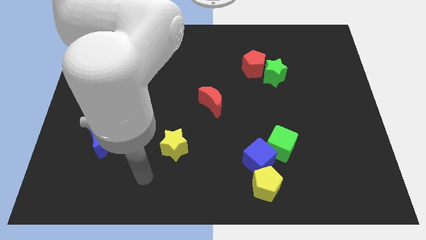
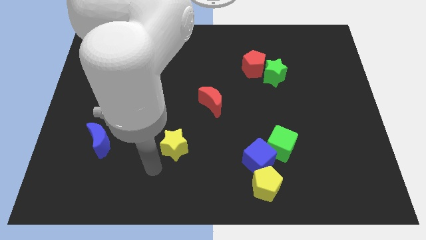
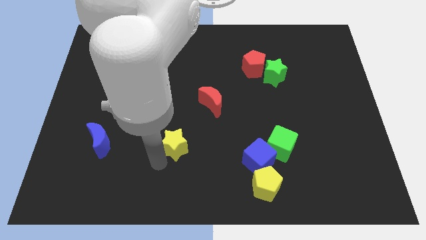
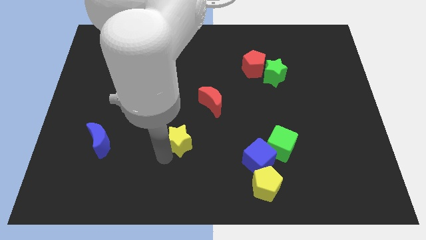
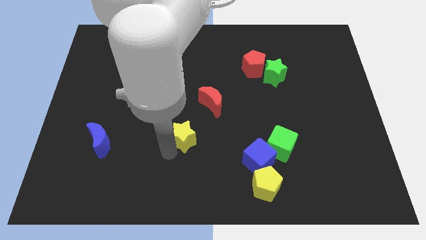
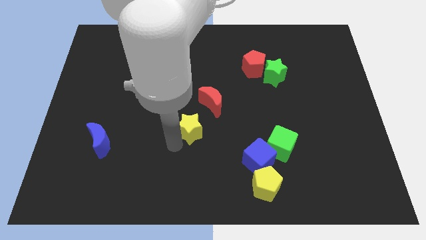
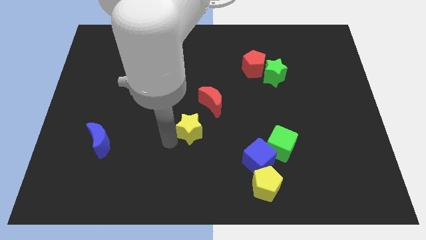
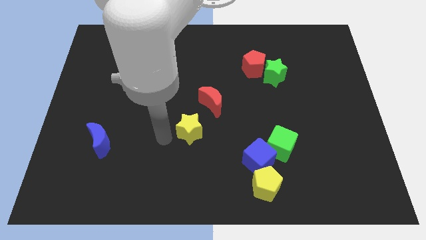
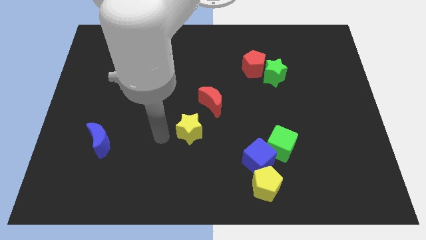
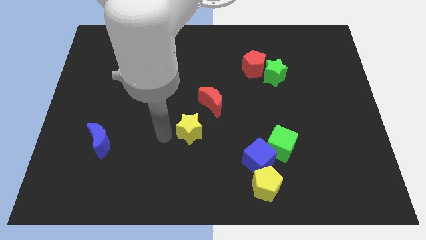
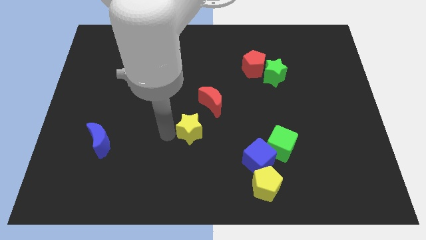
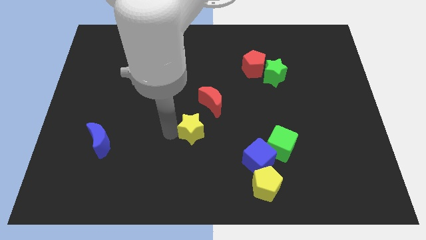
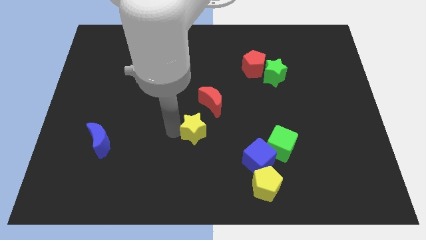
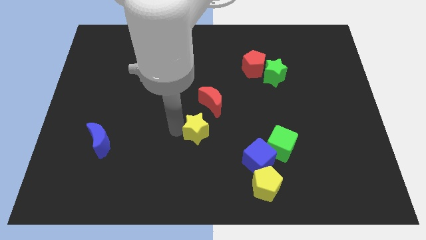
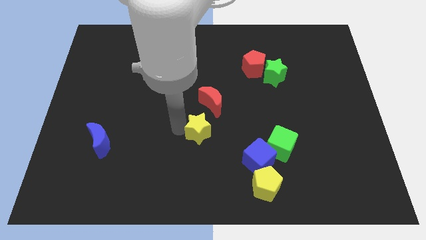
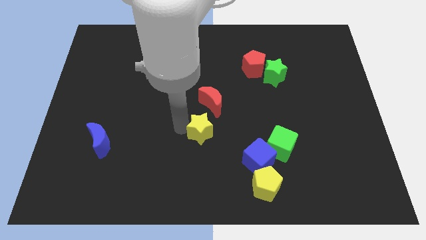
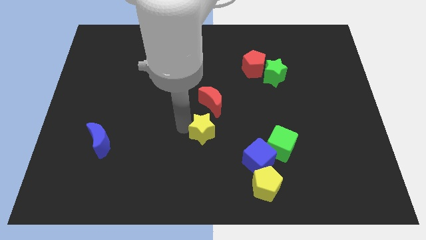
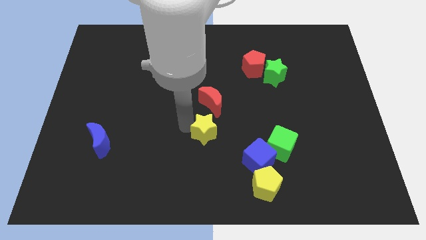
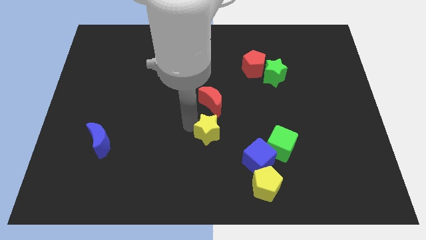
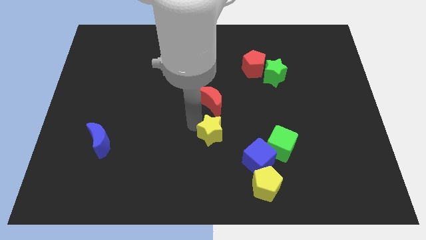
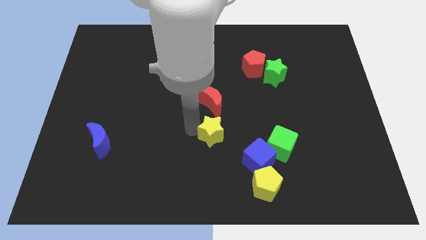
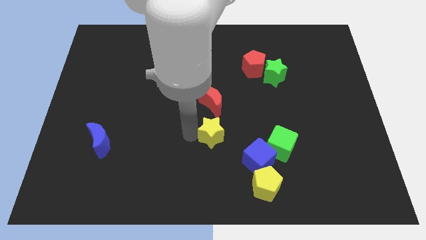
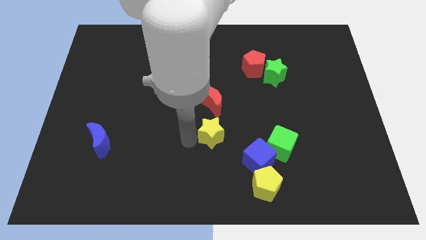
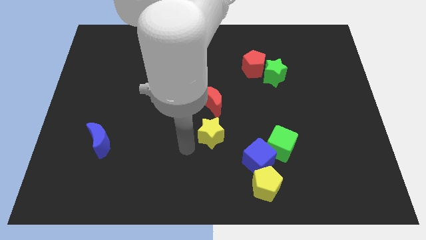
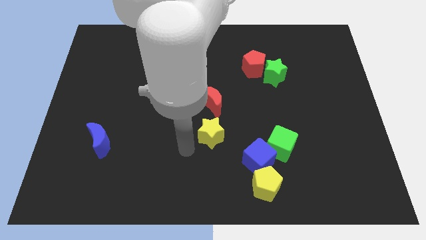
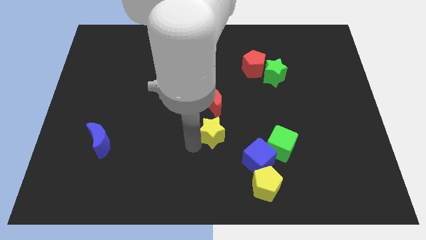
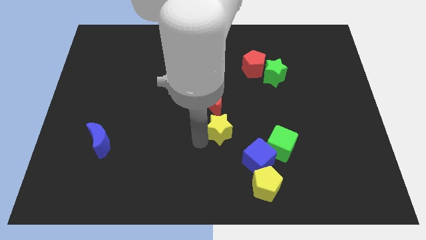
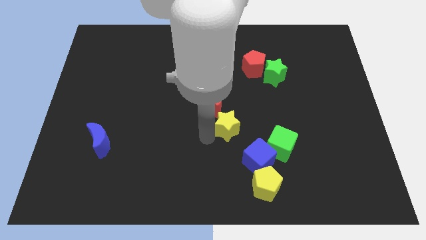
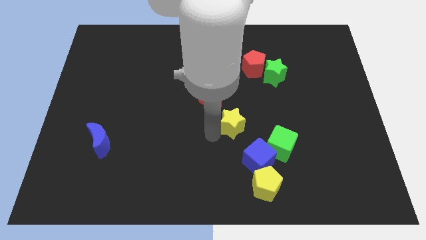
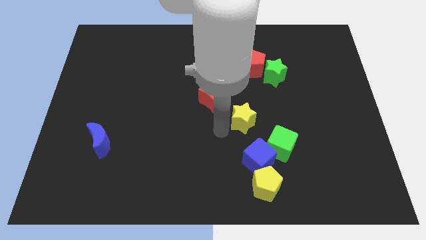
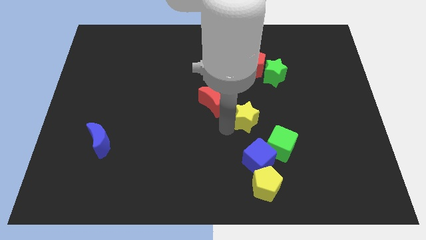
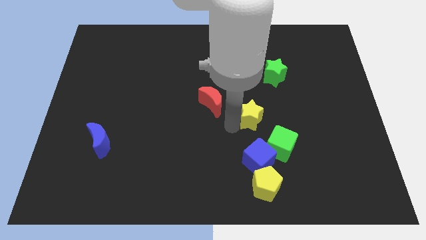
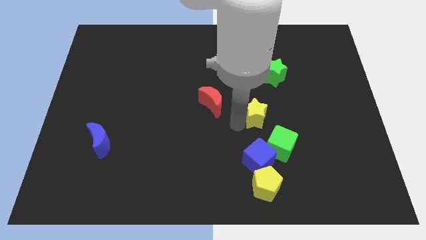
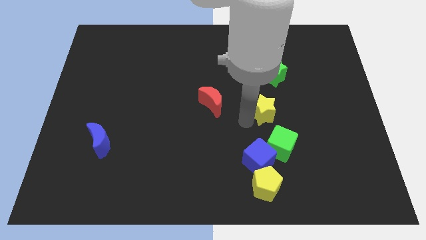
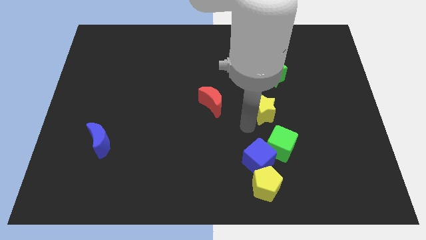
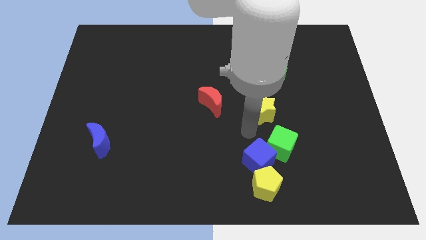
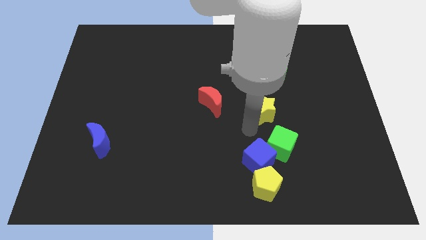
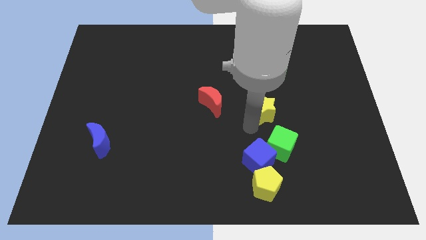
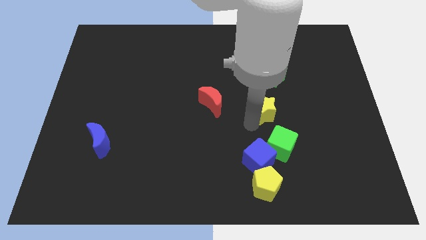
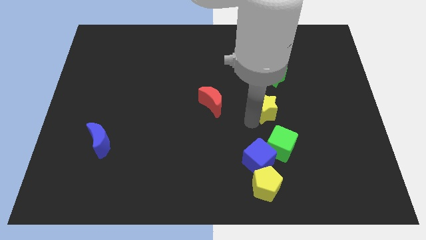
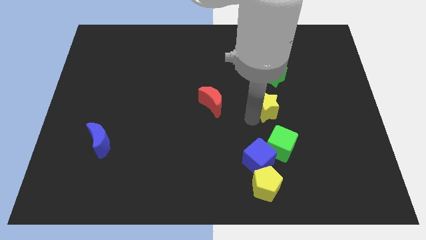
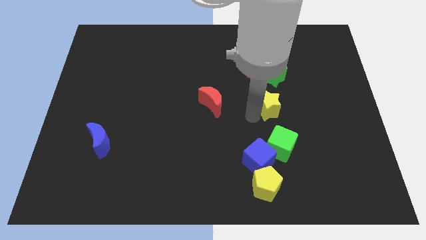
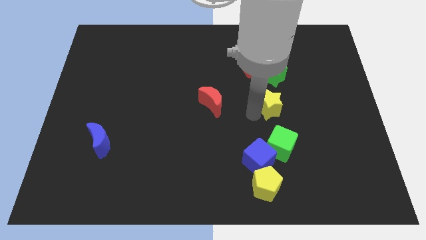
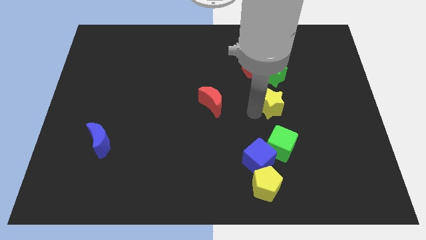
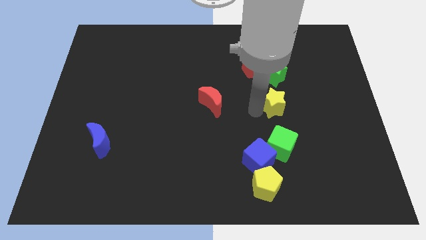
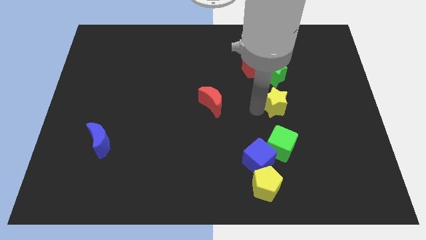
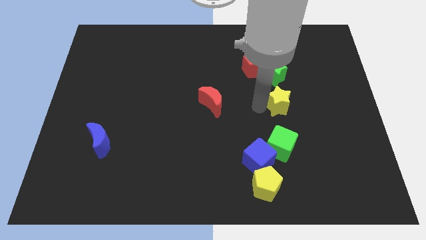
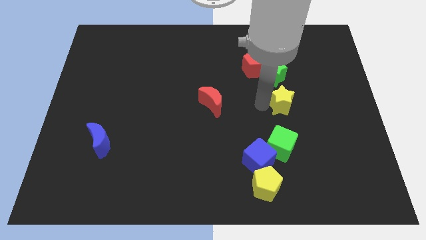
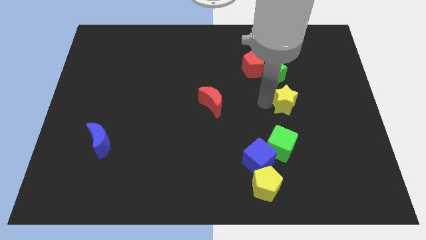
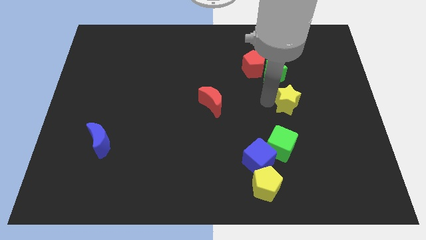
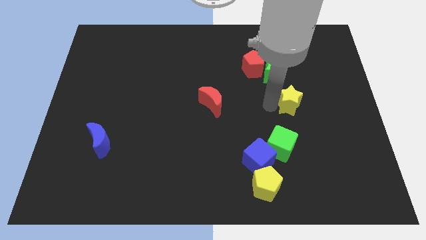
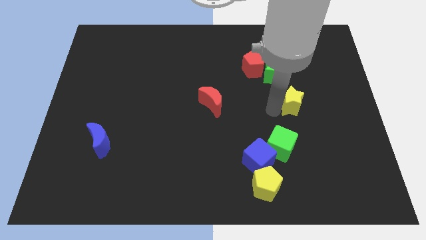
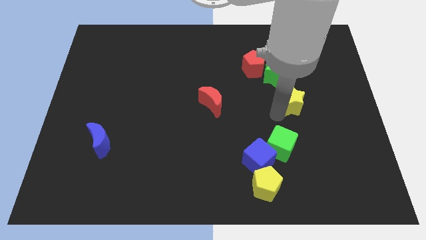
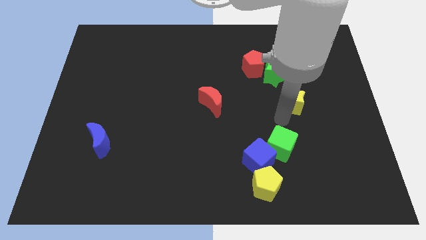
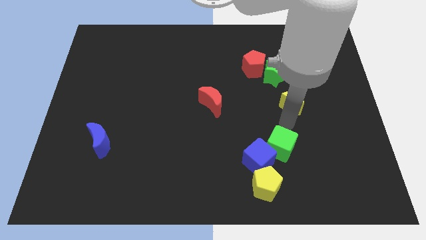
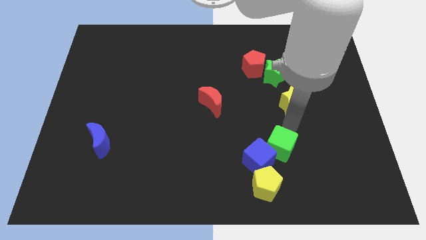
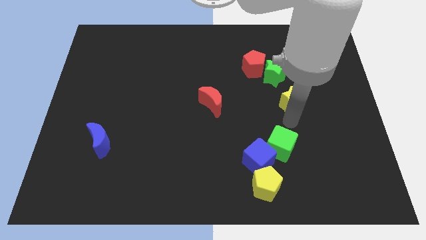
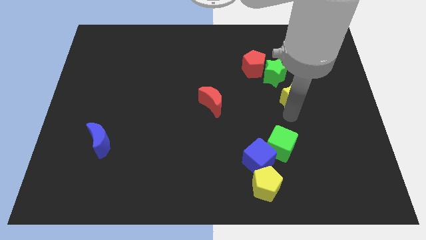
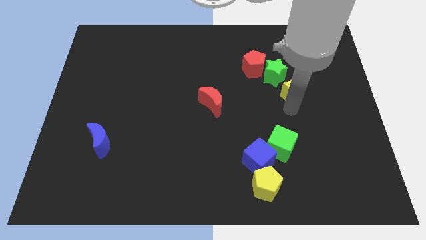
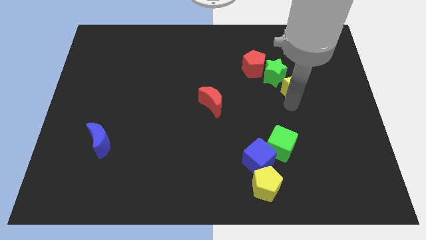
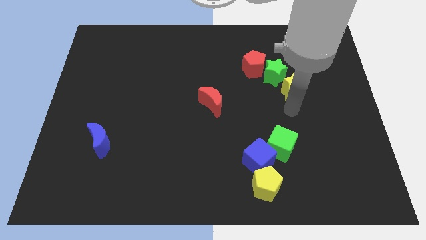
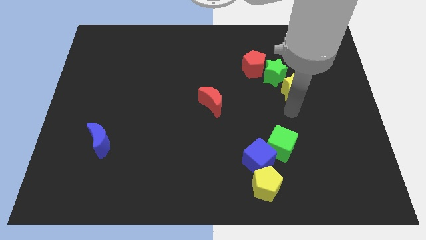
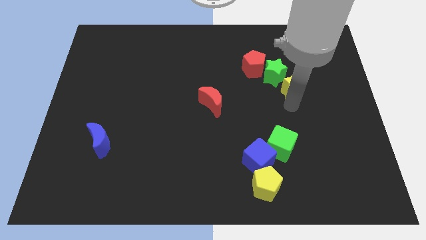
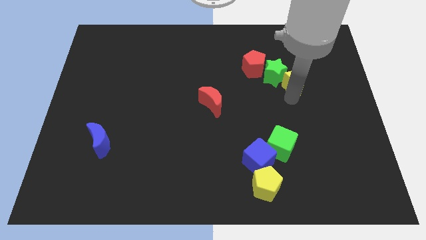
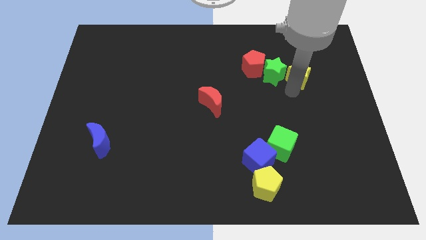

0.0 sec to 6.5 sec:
slide the yellow star diagonally up and to the right of the green star
